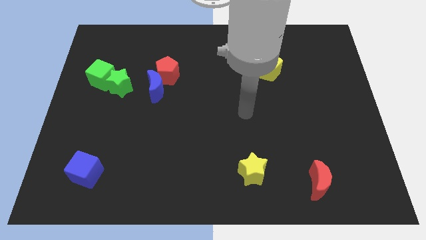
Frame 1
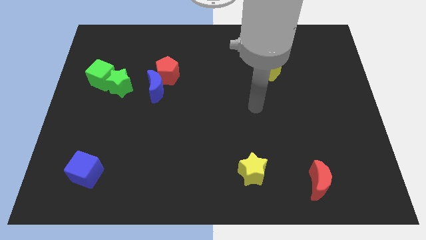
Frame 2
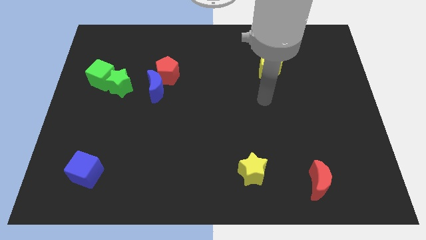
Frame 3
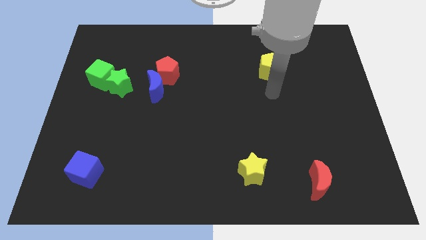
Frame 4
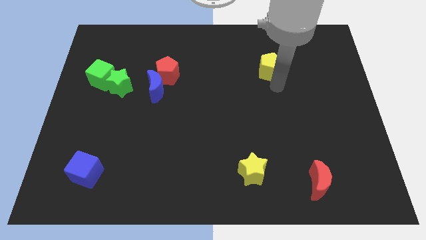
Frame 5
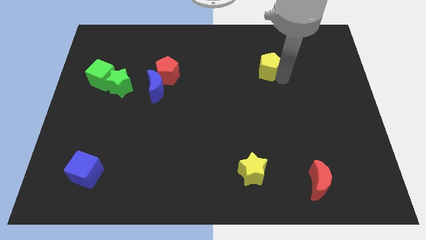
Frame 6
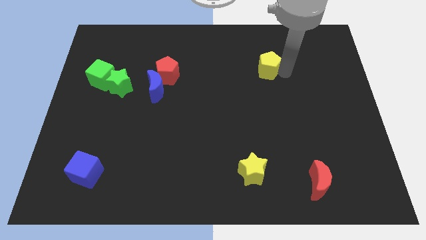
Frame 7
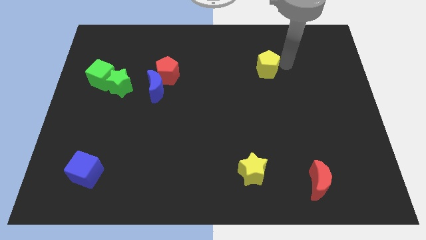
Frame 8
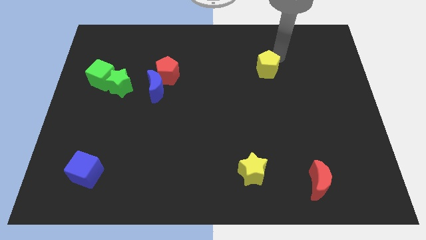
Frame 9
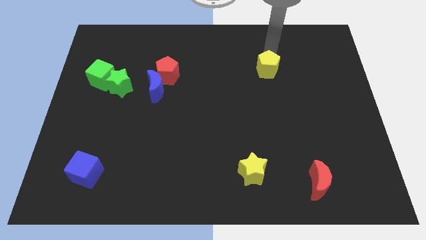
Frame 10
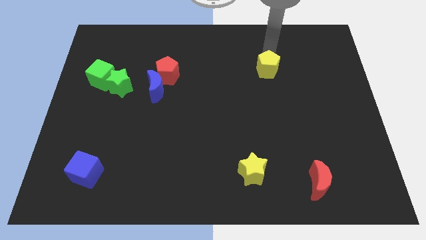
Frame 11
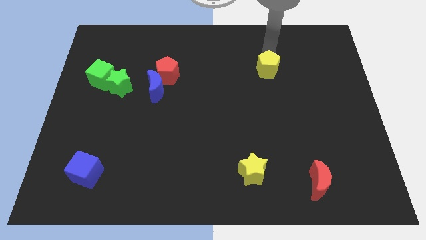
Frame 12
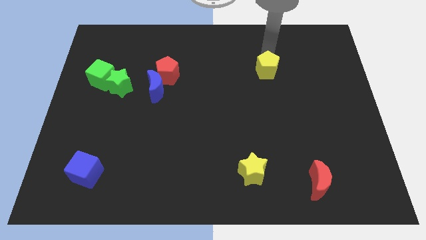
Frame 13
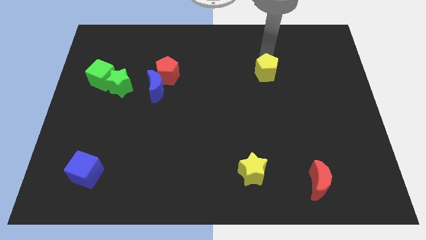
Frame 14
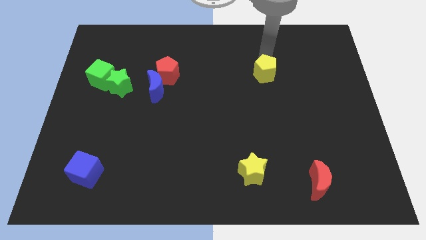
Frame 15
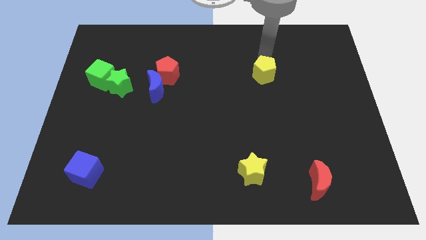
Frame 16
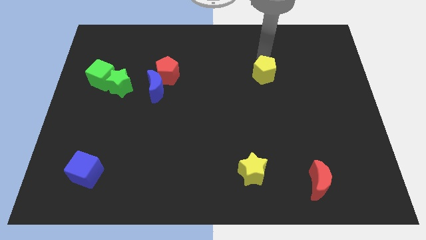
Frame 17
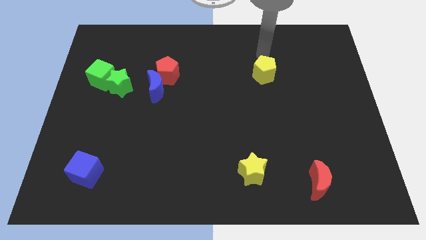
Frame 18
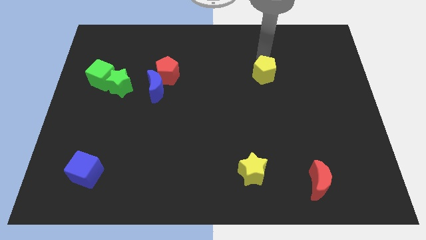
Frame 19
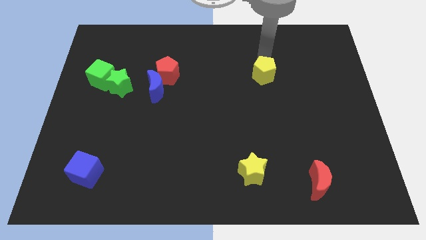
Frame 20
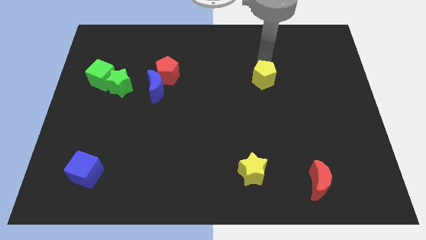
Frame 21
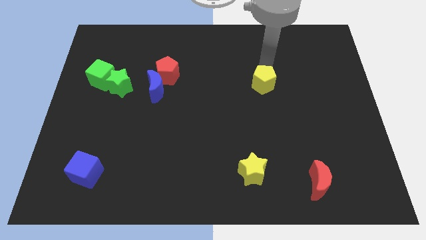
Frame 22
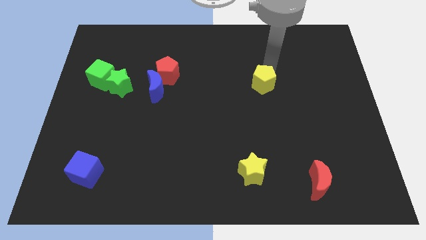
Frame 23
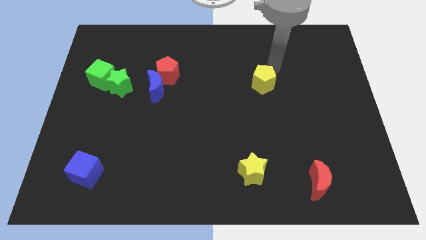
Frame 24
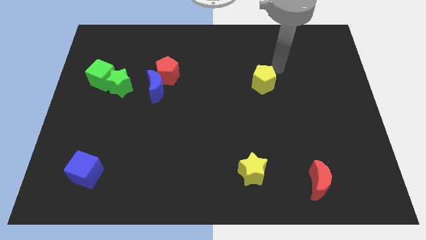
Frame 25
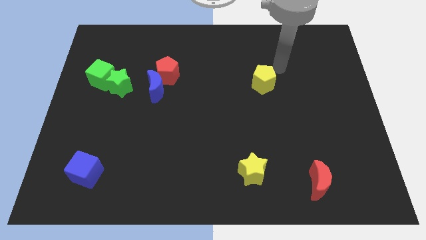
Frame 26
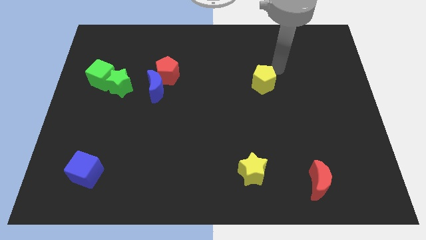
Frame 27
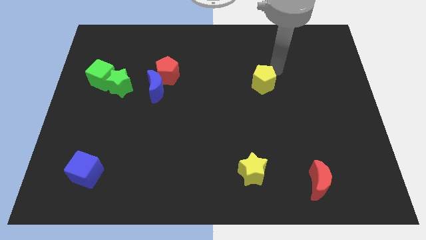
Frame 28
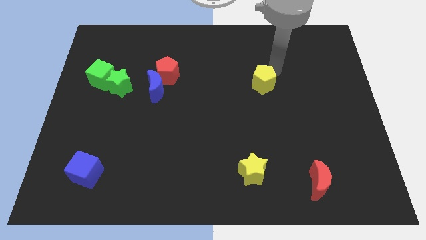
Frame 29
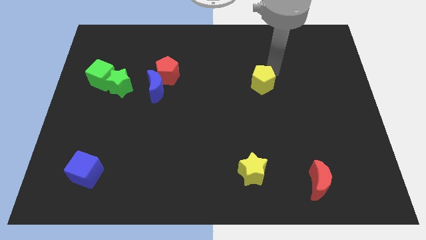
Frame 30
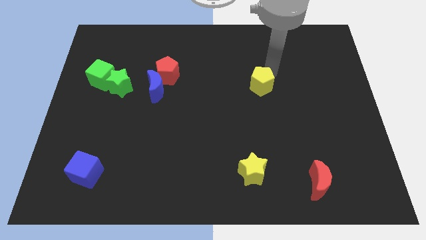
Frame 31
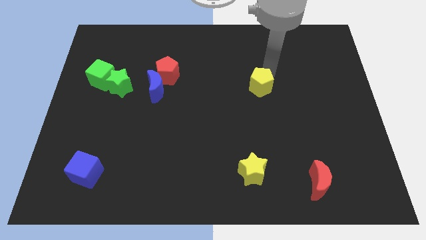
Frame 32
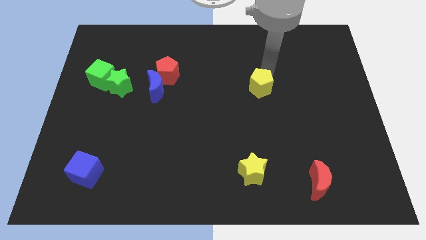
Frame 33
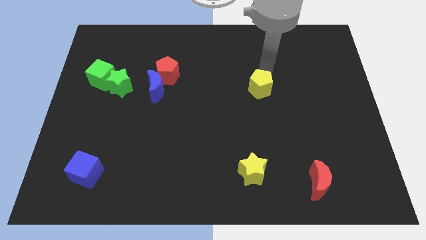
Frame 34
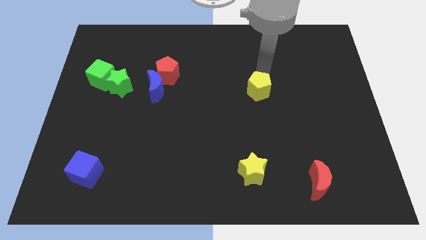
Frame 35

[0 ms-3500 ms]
slightly slide the yellow pentagon down and left diagonally

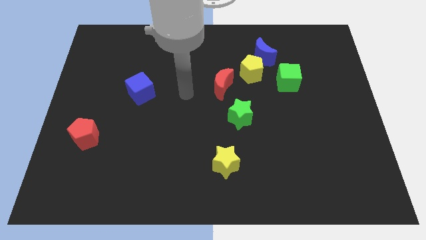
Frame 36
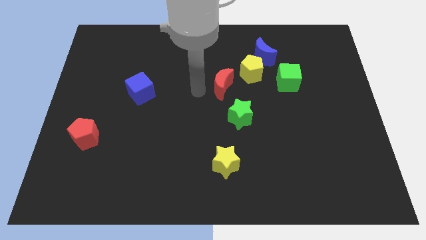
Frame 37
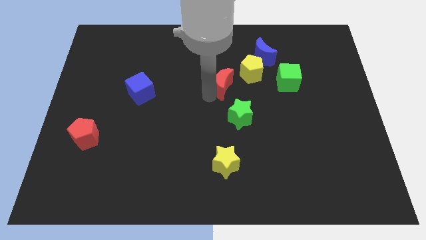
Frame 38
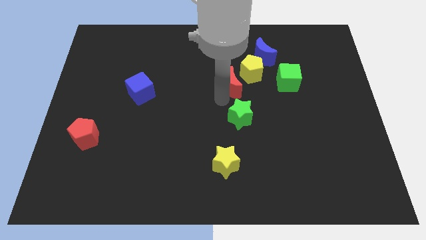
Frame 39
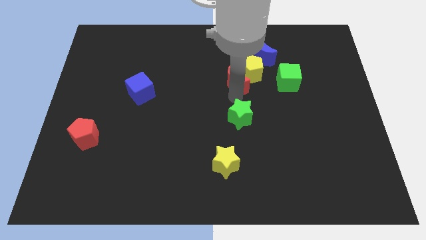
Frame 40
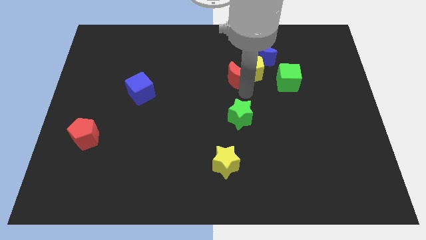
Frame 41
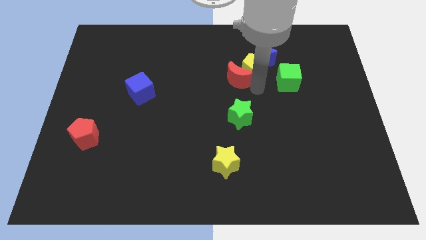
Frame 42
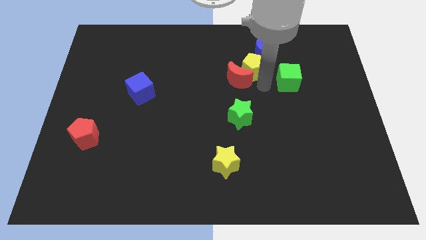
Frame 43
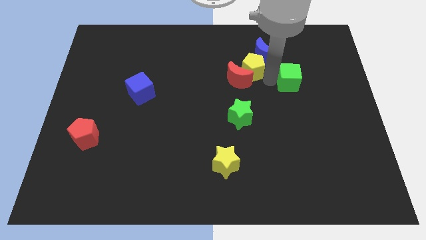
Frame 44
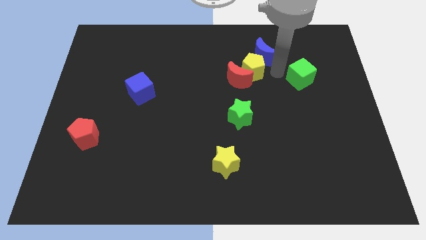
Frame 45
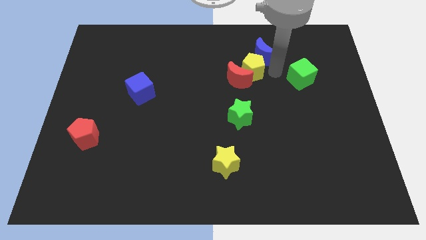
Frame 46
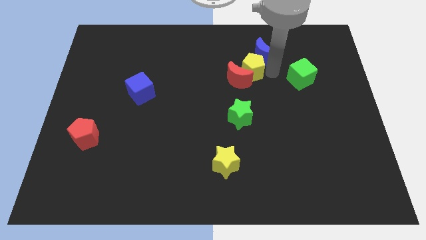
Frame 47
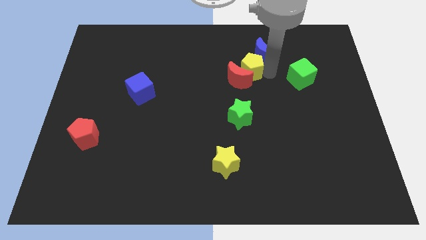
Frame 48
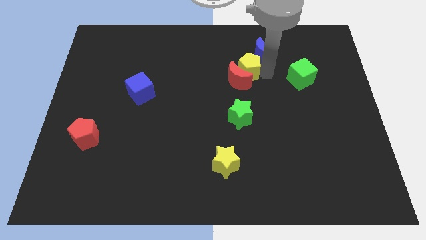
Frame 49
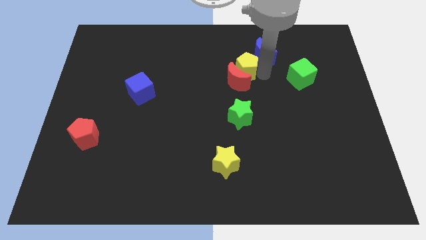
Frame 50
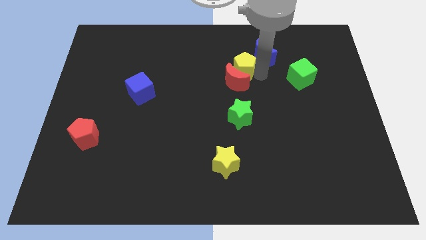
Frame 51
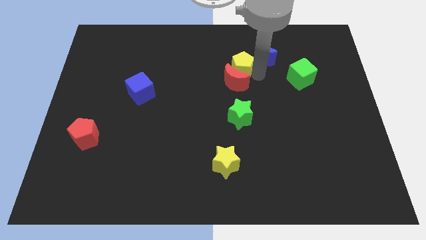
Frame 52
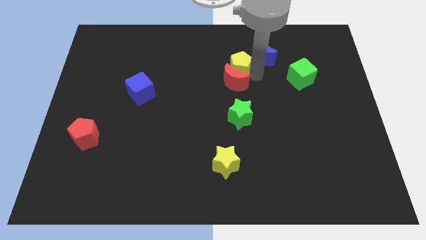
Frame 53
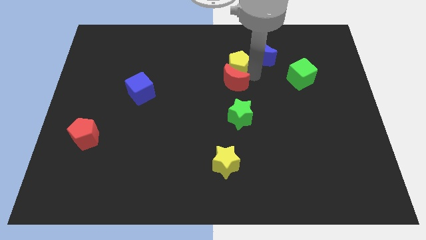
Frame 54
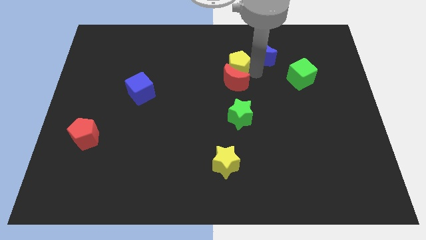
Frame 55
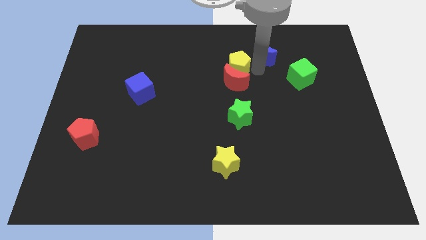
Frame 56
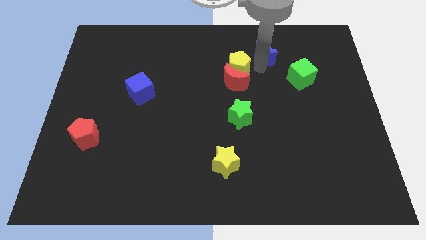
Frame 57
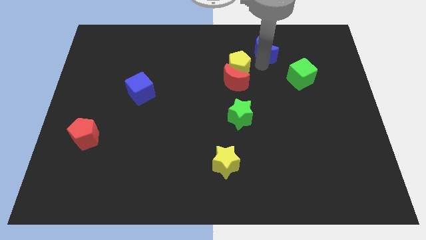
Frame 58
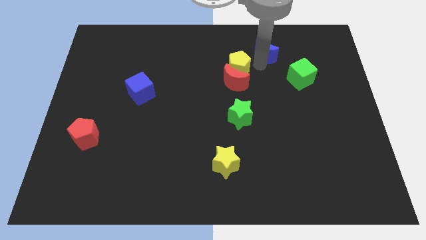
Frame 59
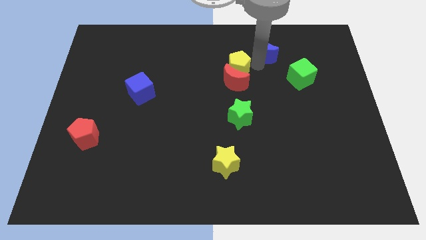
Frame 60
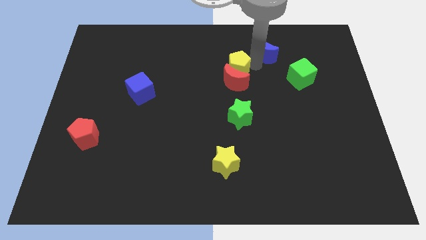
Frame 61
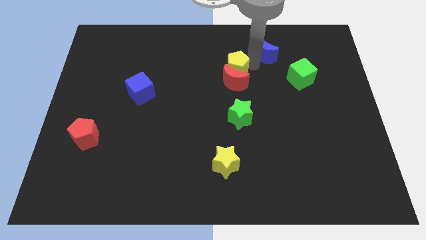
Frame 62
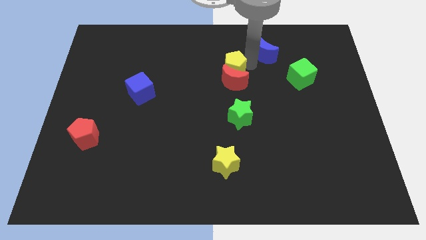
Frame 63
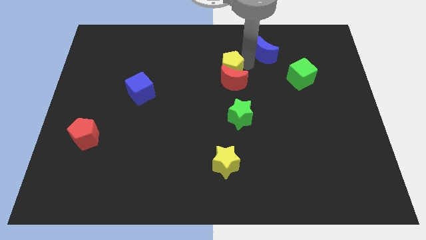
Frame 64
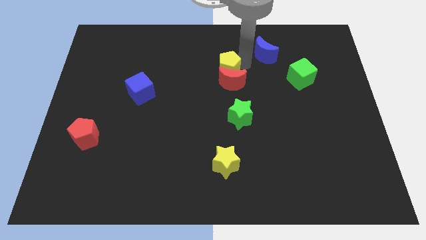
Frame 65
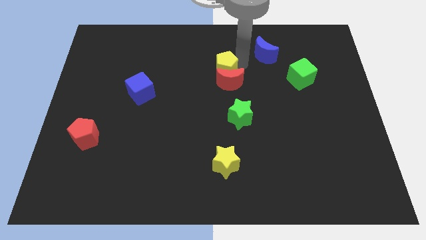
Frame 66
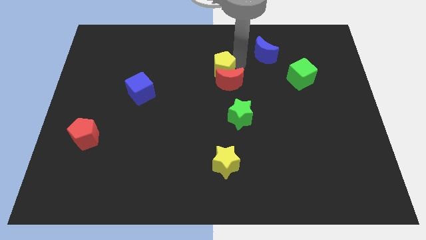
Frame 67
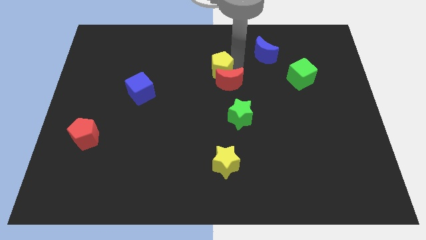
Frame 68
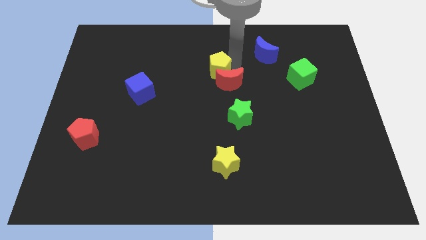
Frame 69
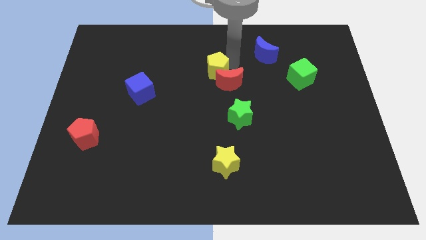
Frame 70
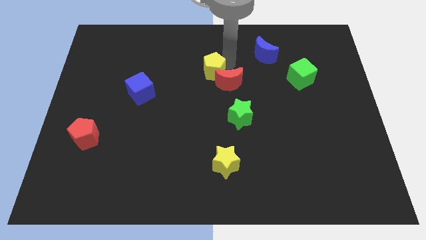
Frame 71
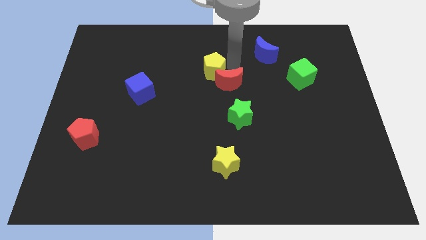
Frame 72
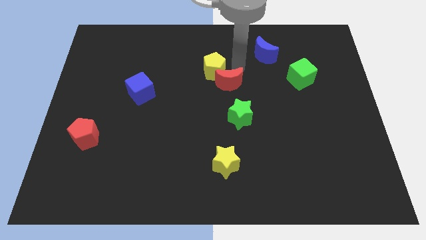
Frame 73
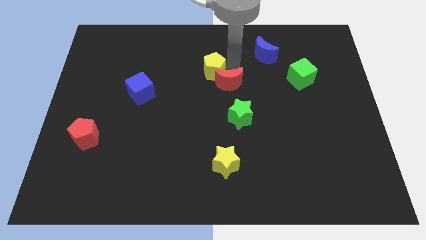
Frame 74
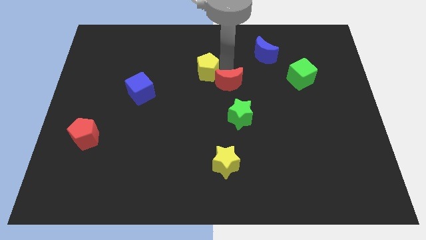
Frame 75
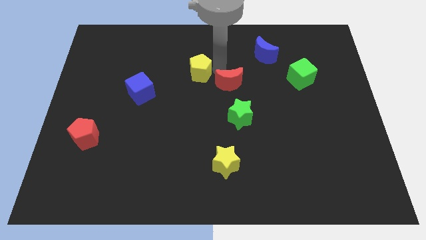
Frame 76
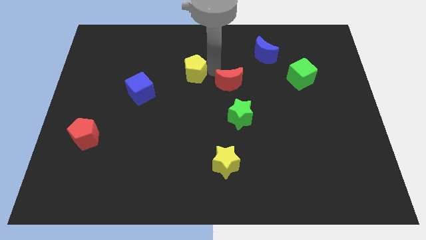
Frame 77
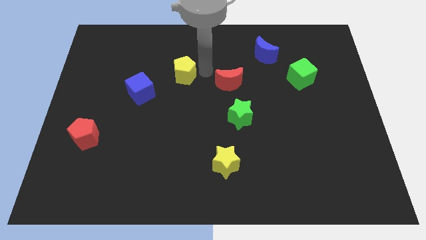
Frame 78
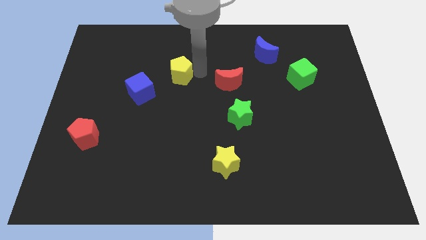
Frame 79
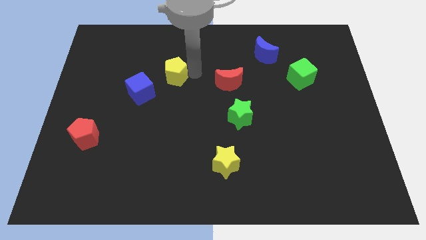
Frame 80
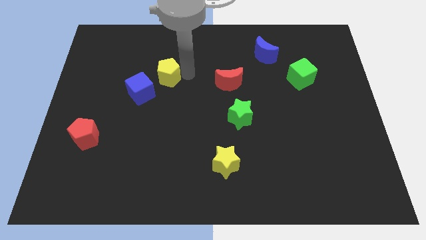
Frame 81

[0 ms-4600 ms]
push the yellow pentagon to the left
